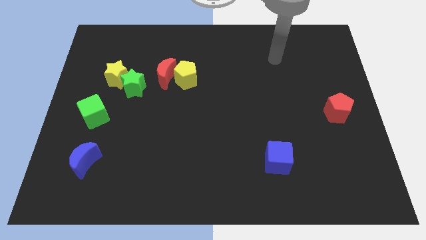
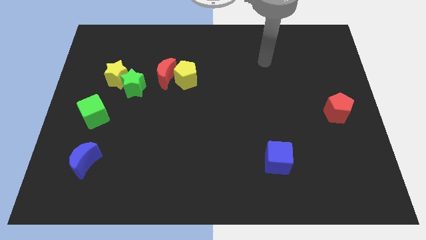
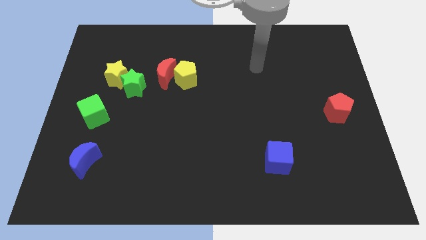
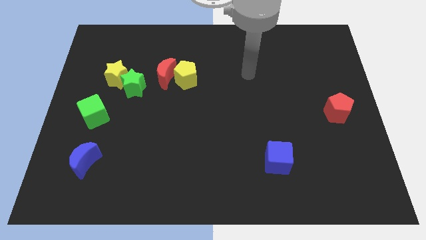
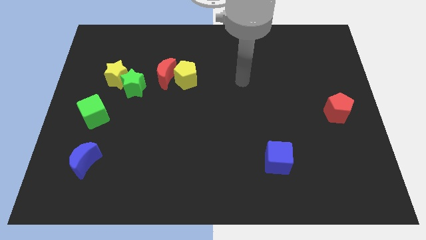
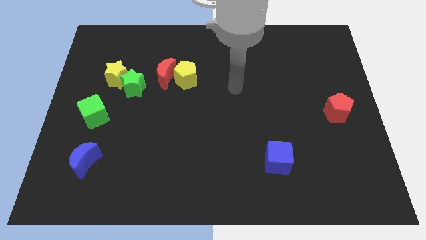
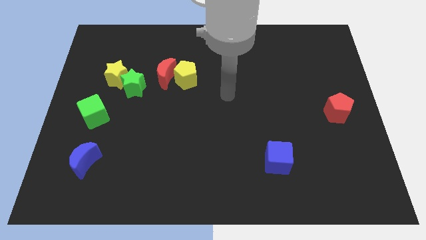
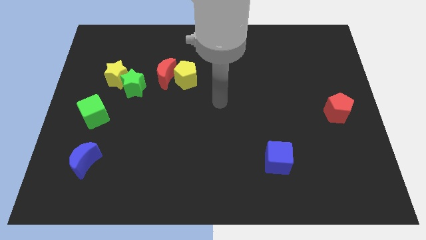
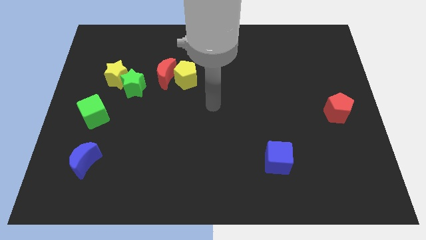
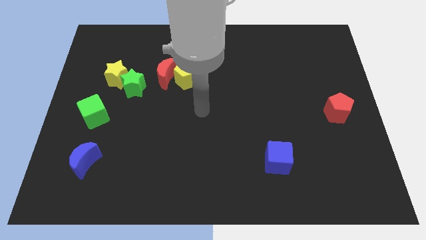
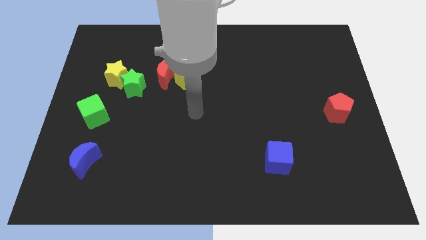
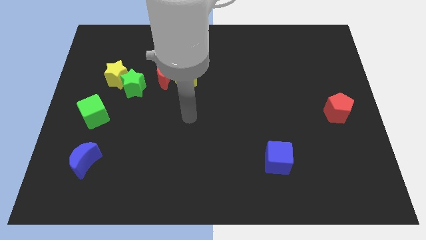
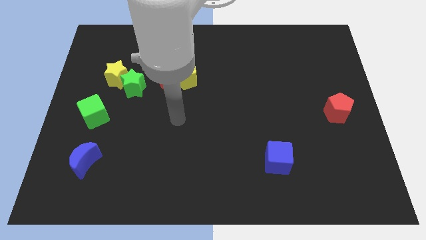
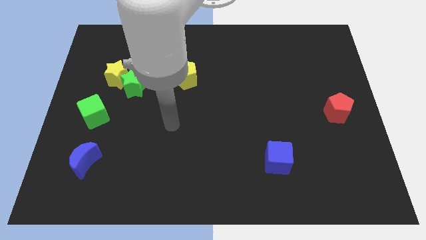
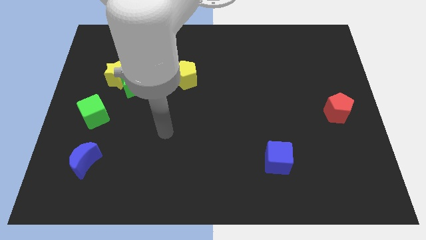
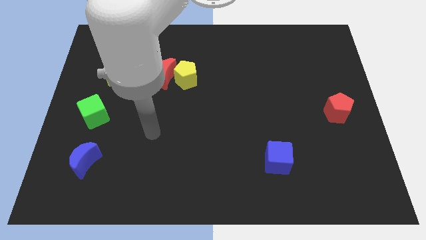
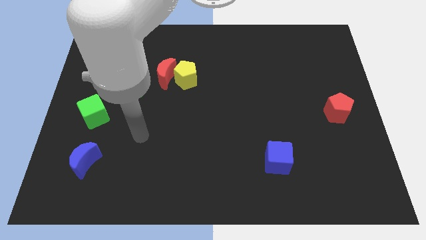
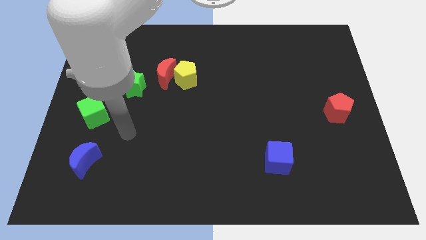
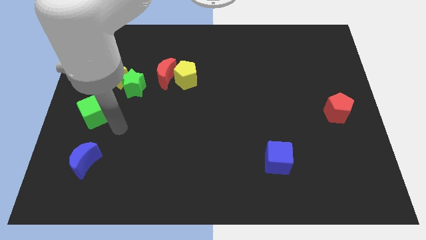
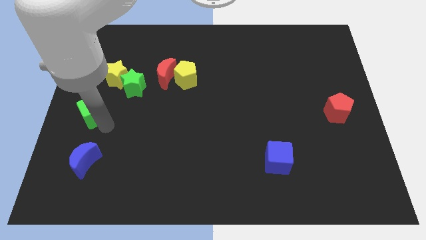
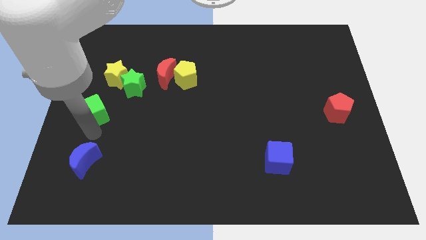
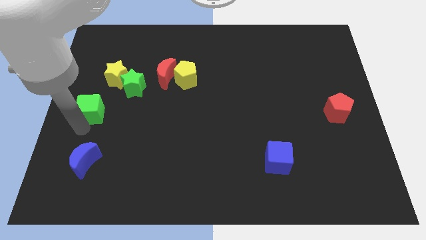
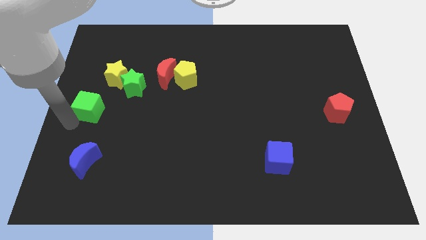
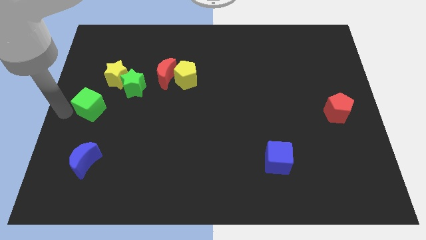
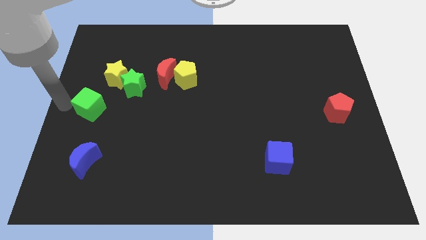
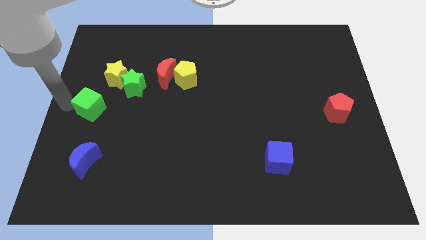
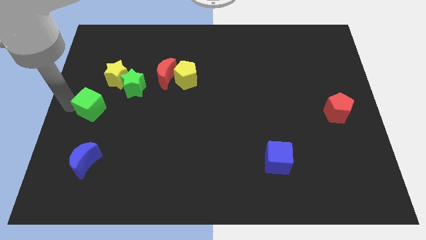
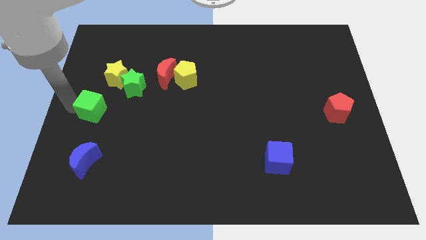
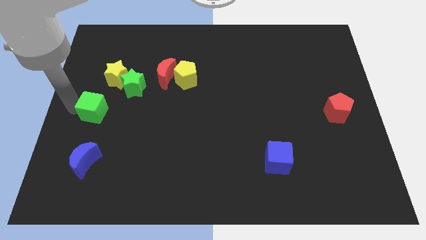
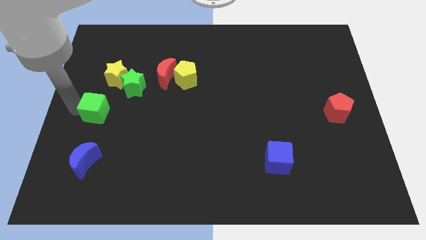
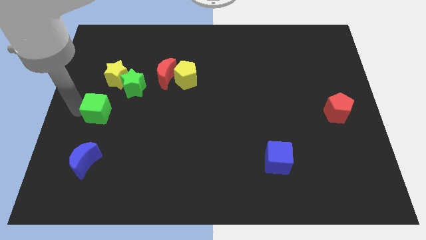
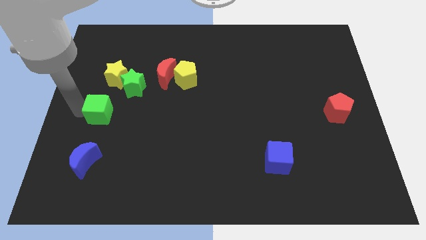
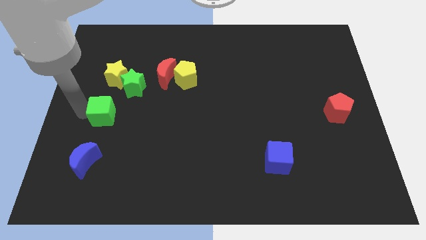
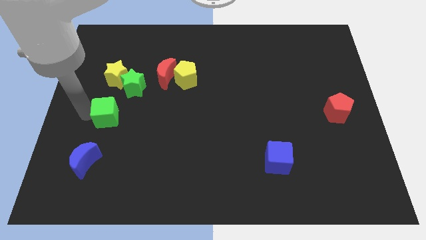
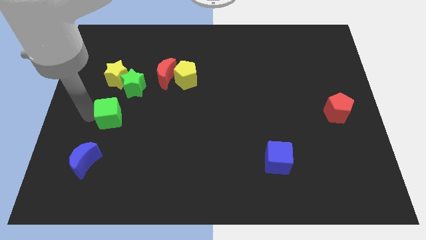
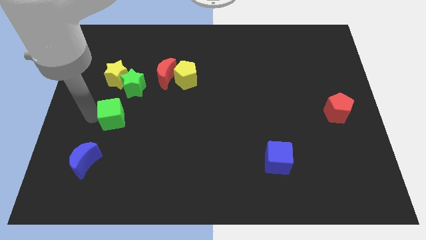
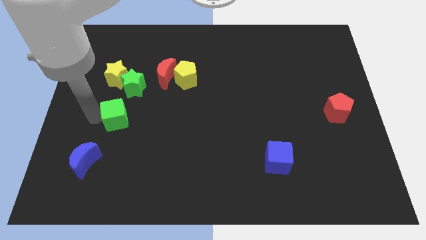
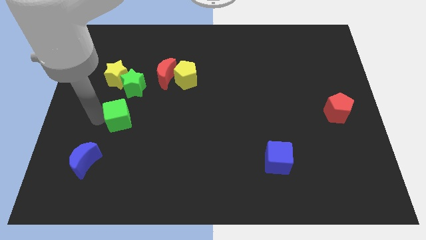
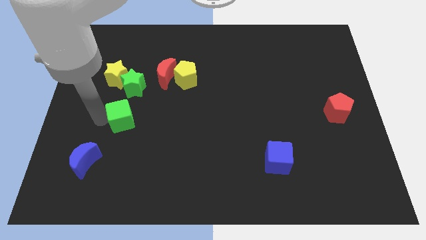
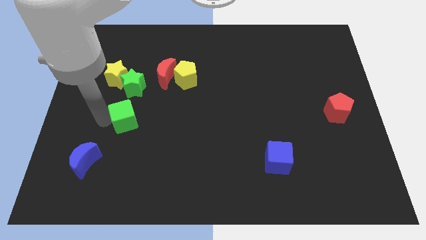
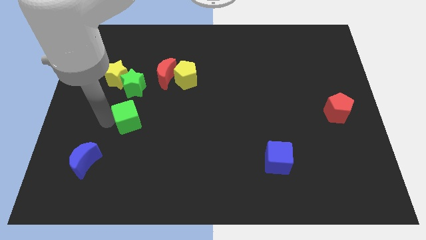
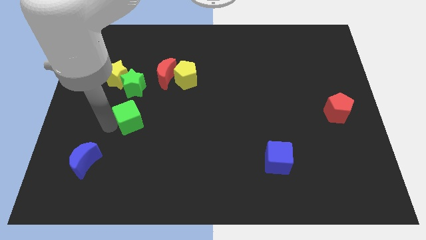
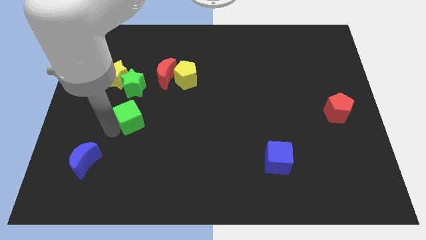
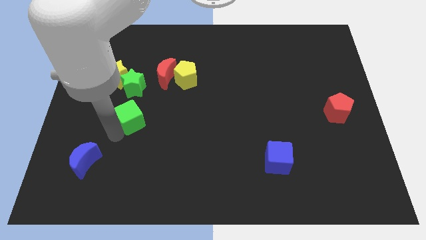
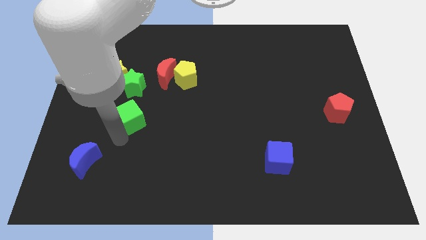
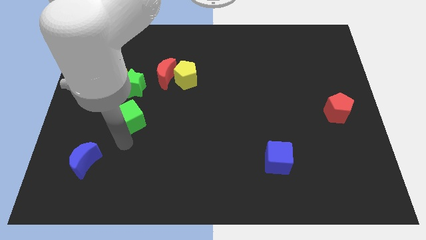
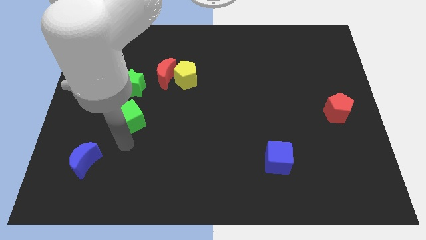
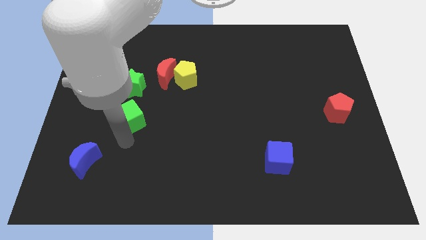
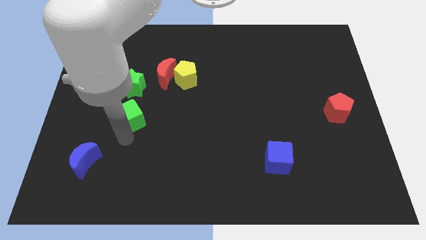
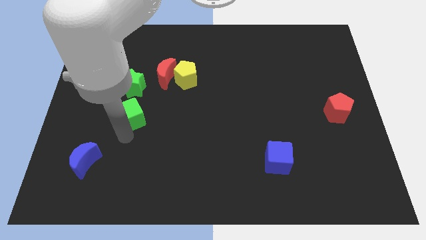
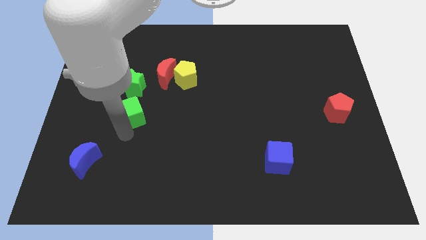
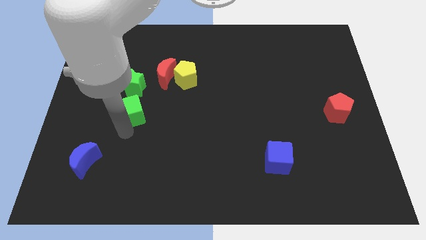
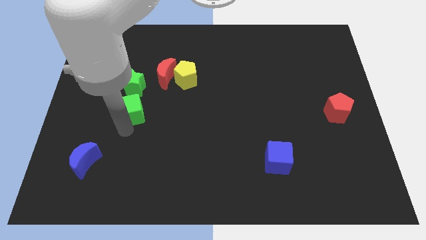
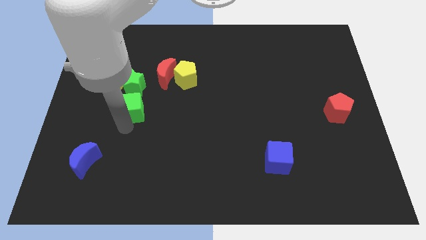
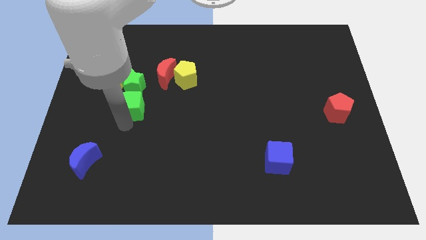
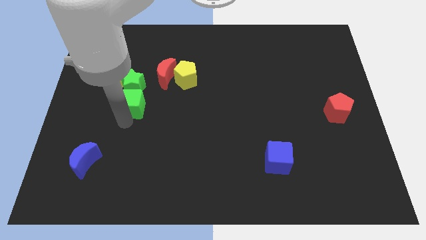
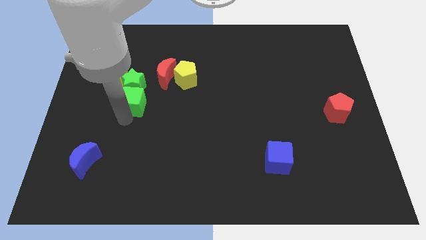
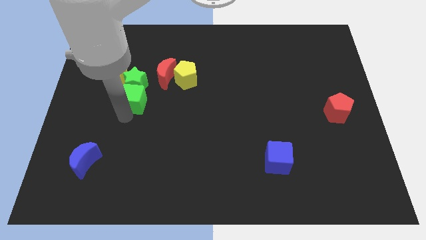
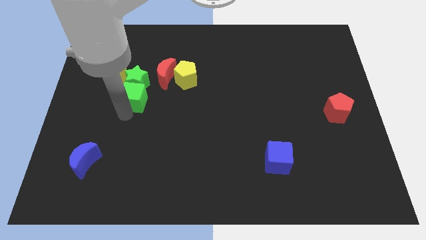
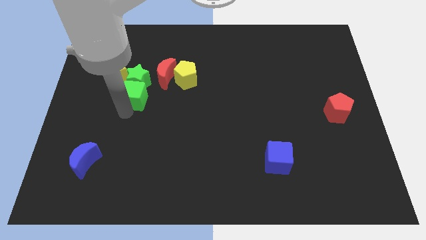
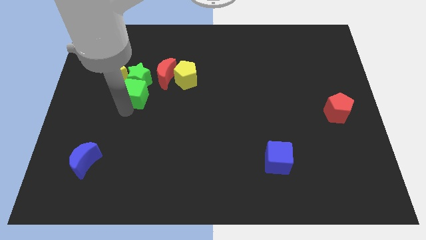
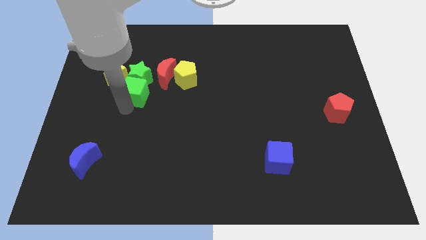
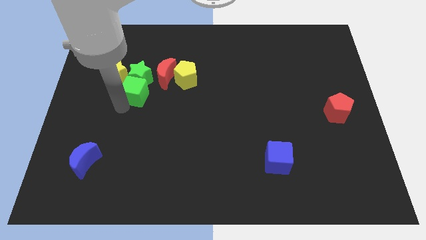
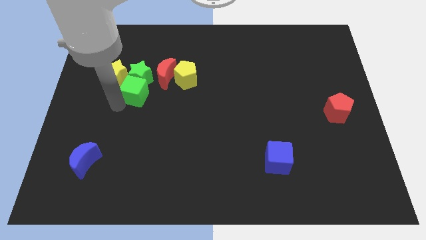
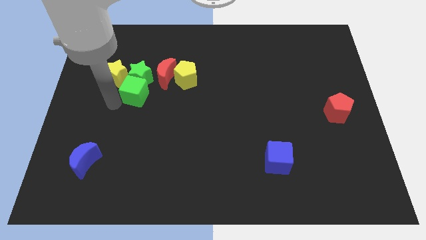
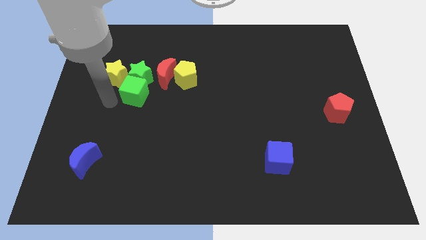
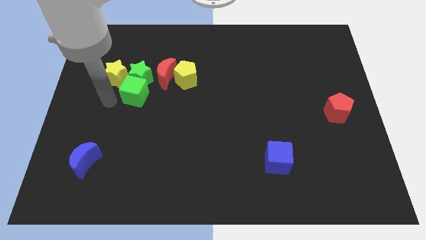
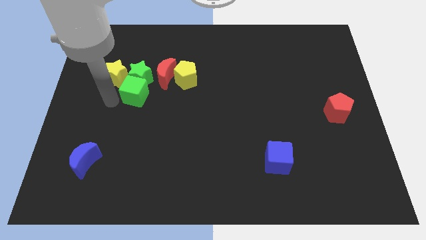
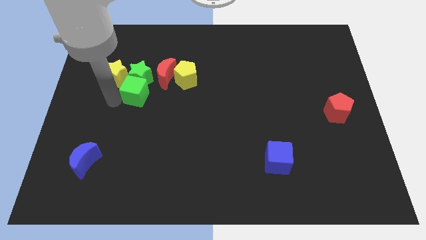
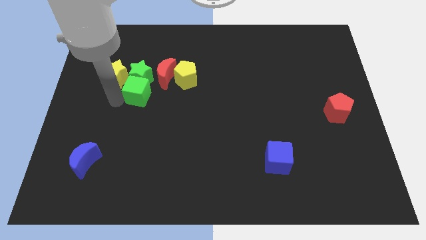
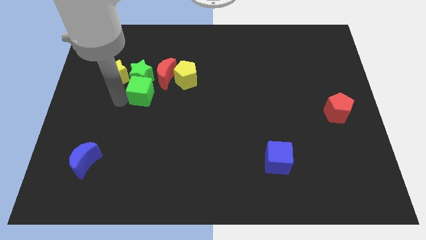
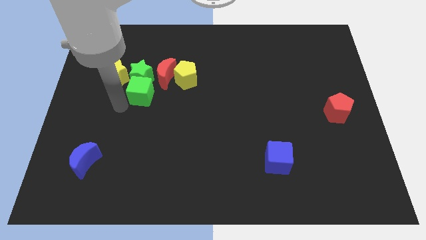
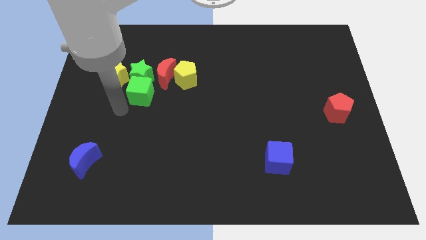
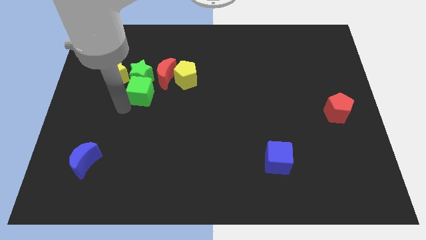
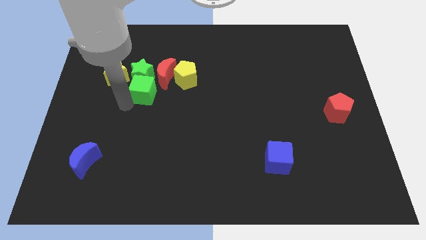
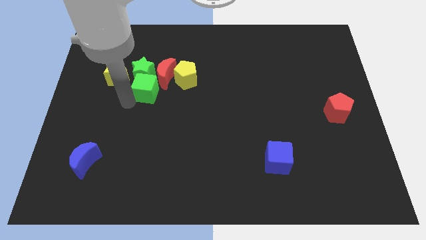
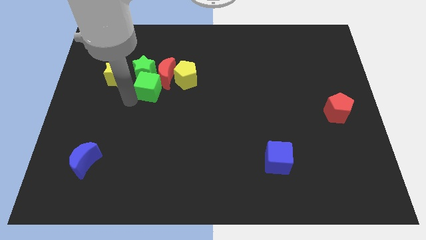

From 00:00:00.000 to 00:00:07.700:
put the green cube close to the red moon
